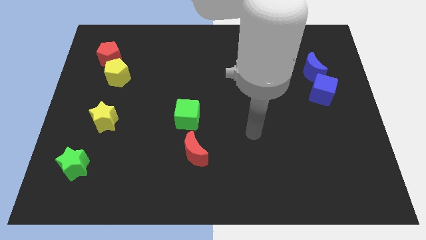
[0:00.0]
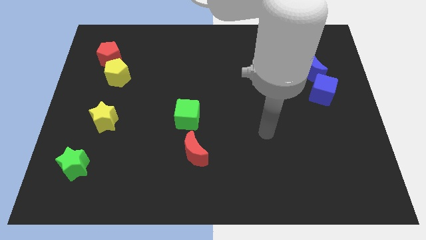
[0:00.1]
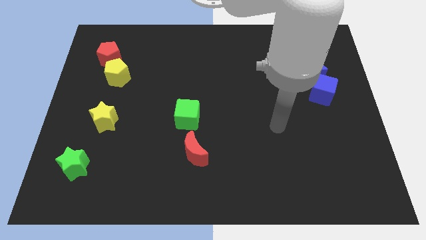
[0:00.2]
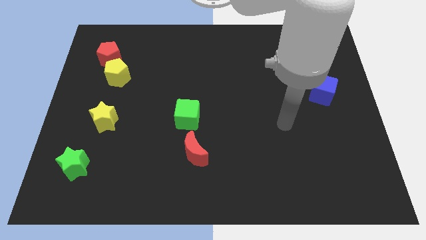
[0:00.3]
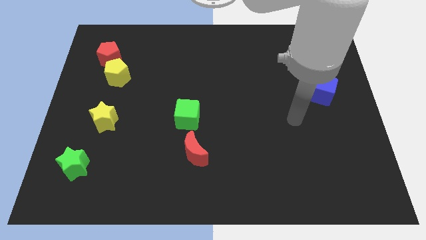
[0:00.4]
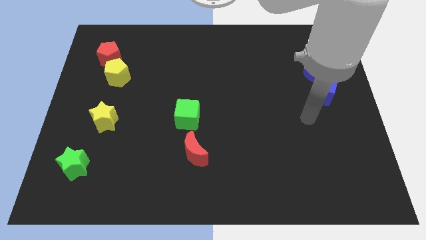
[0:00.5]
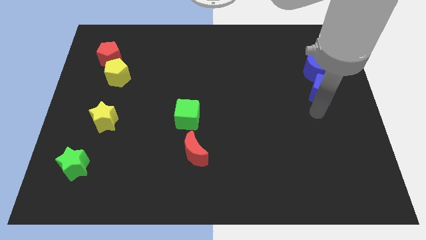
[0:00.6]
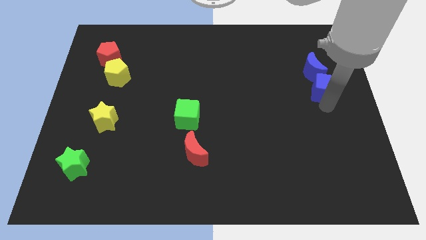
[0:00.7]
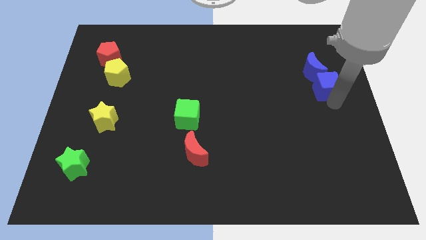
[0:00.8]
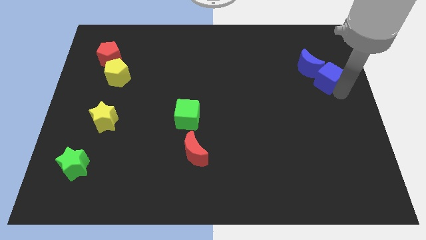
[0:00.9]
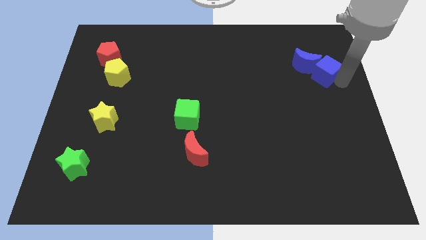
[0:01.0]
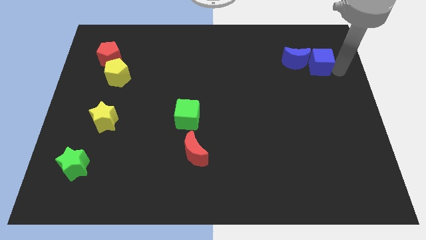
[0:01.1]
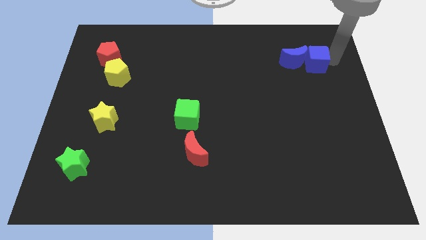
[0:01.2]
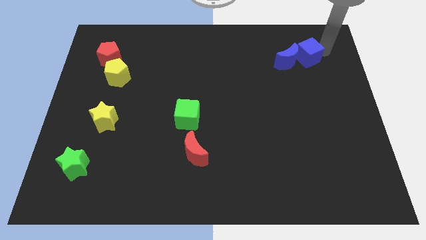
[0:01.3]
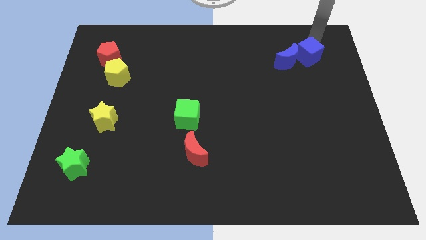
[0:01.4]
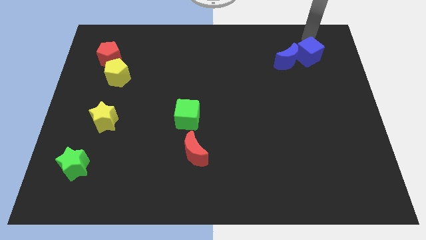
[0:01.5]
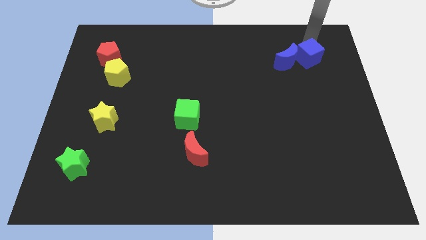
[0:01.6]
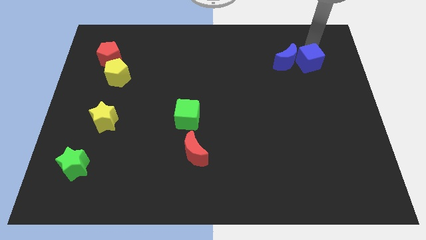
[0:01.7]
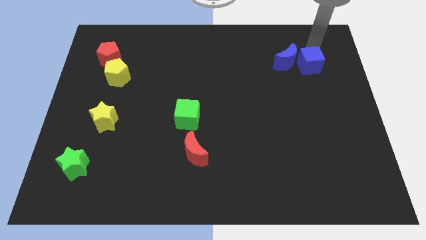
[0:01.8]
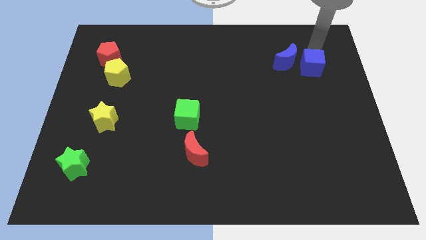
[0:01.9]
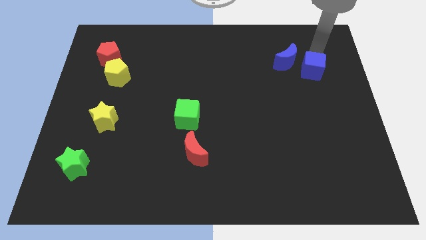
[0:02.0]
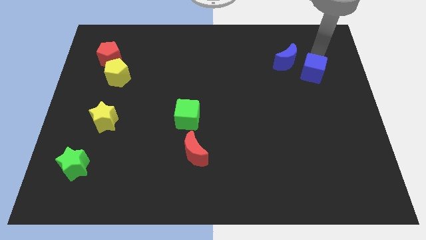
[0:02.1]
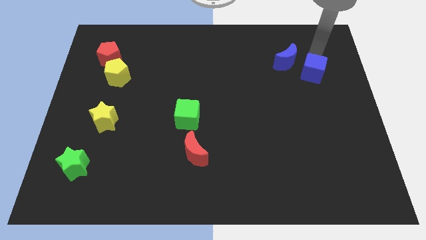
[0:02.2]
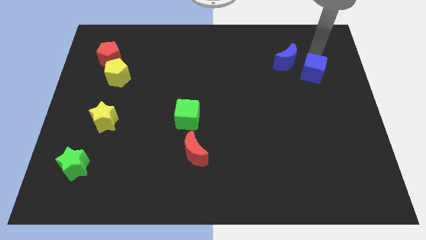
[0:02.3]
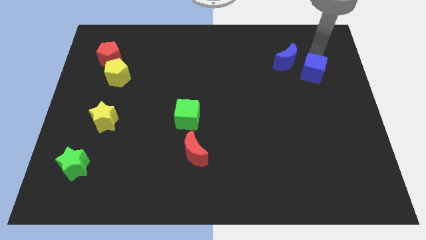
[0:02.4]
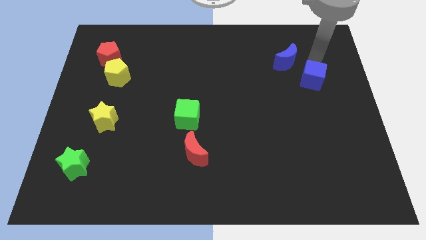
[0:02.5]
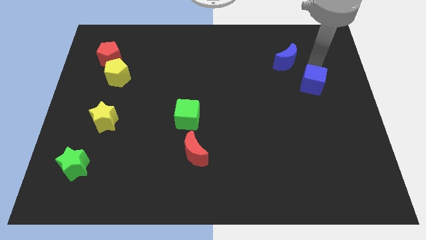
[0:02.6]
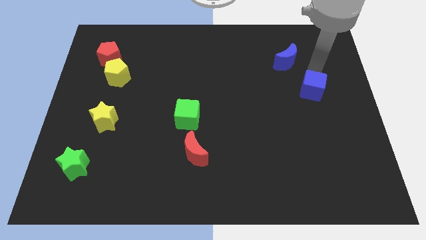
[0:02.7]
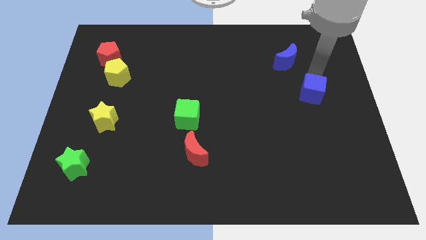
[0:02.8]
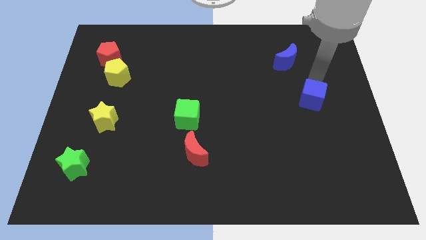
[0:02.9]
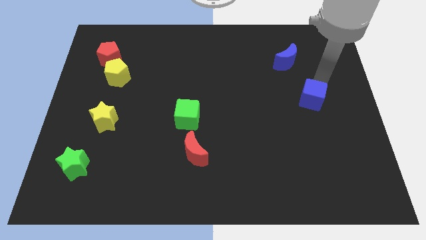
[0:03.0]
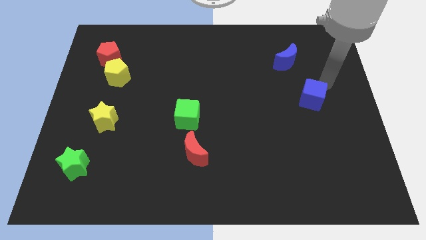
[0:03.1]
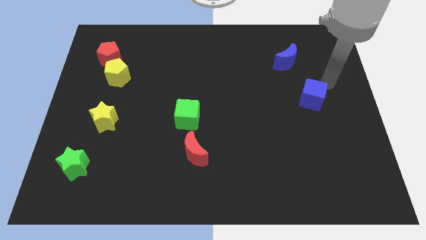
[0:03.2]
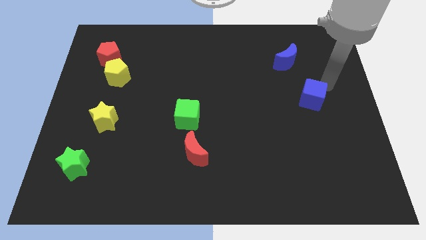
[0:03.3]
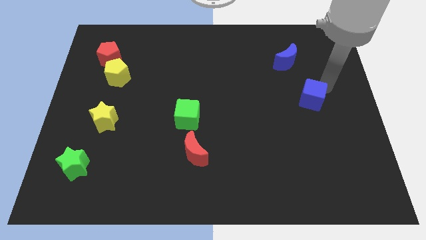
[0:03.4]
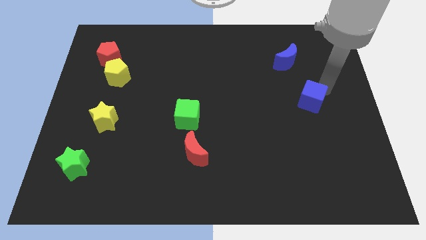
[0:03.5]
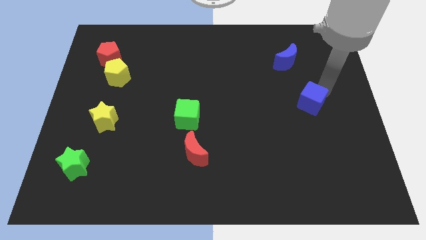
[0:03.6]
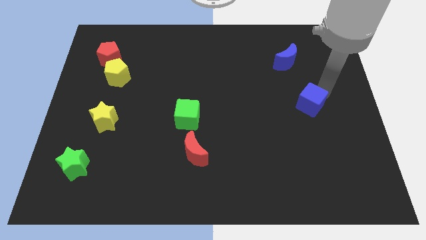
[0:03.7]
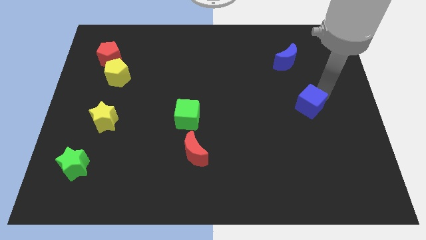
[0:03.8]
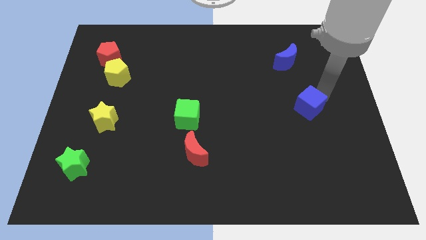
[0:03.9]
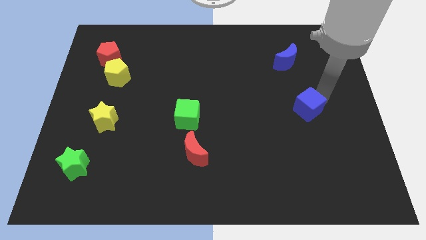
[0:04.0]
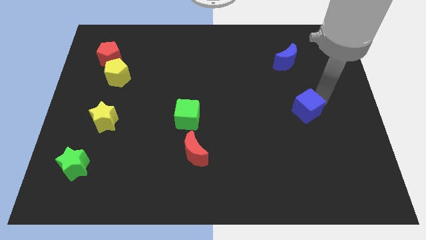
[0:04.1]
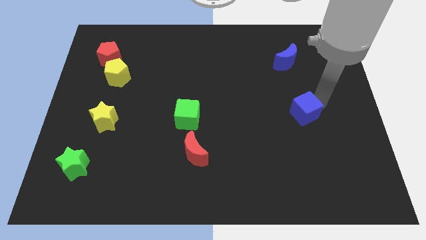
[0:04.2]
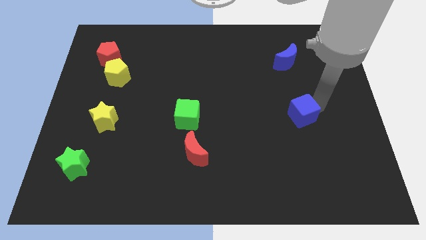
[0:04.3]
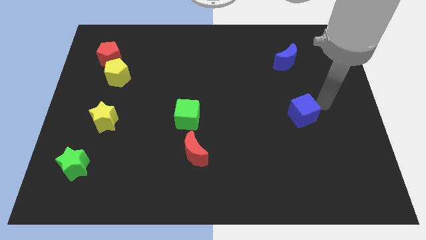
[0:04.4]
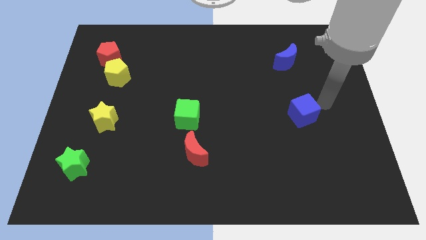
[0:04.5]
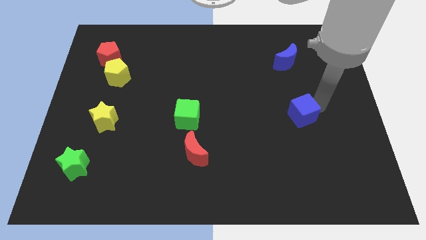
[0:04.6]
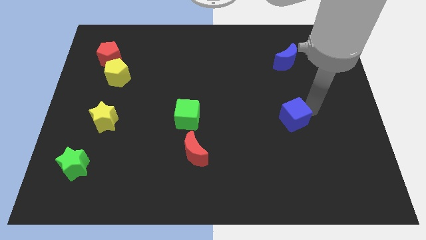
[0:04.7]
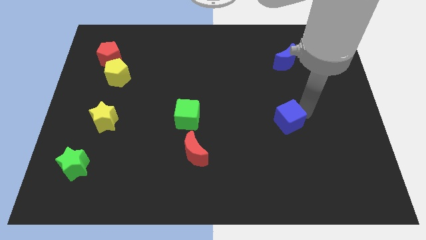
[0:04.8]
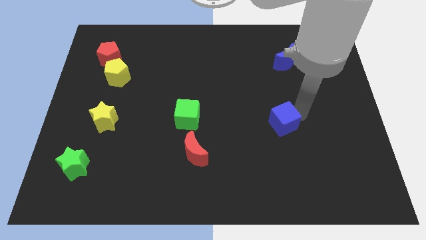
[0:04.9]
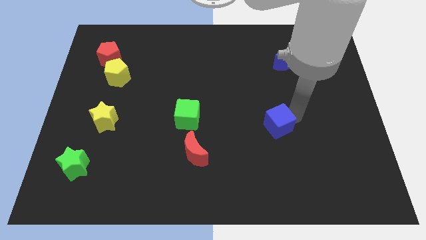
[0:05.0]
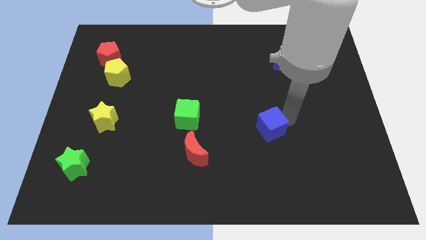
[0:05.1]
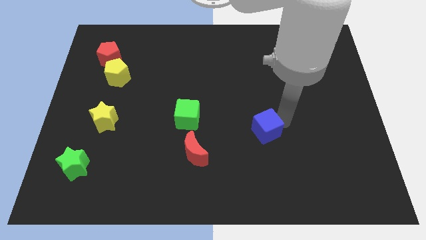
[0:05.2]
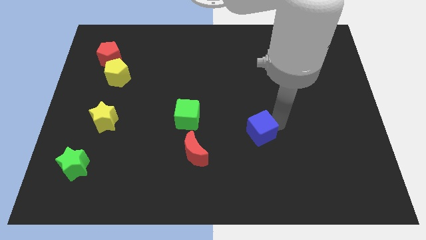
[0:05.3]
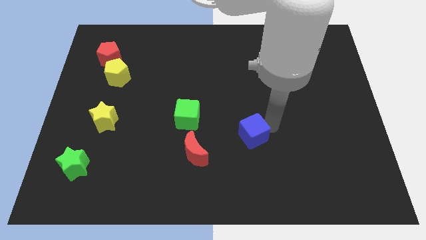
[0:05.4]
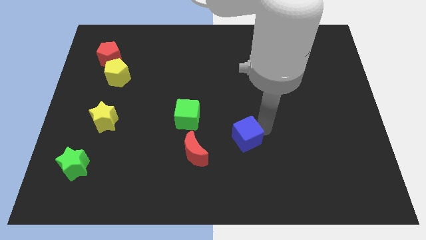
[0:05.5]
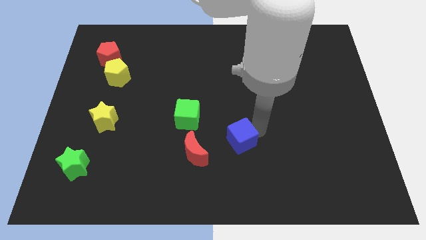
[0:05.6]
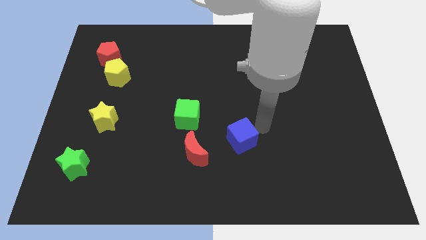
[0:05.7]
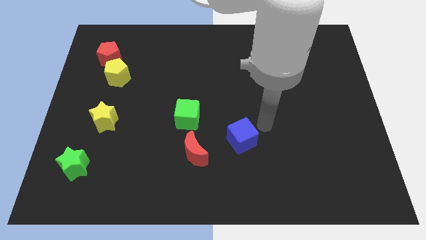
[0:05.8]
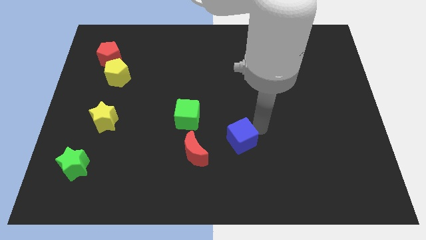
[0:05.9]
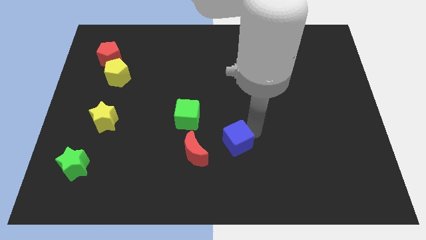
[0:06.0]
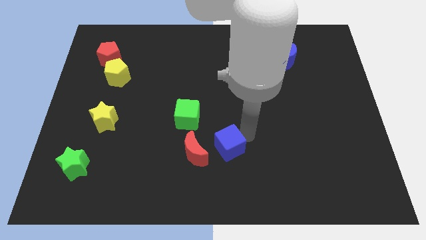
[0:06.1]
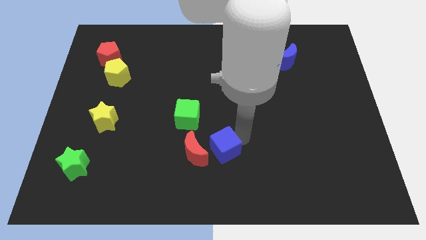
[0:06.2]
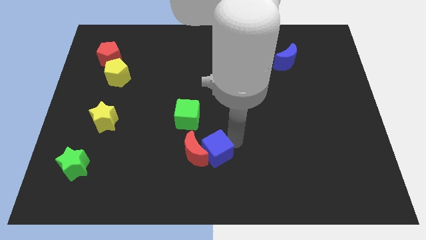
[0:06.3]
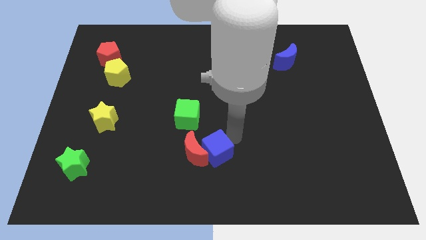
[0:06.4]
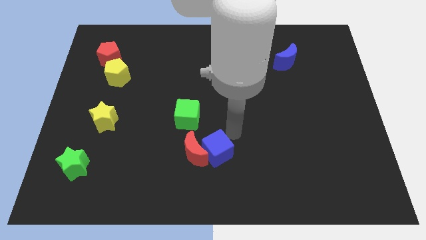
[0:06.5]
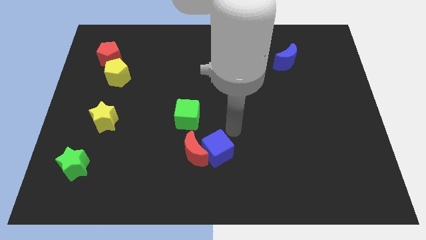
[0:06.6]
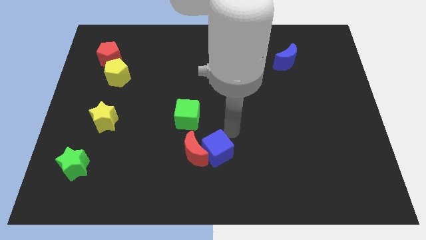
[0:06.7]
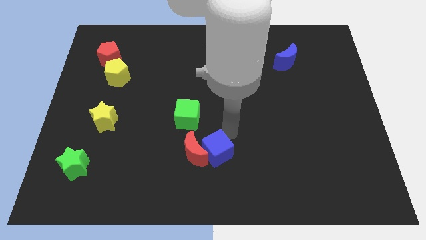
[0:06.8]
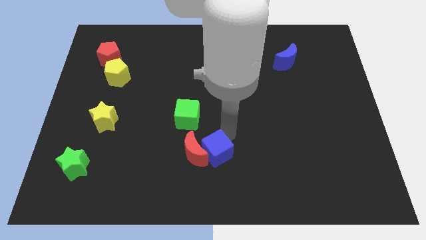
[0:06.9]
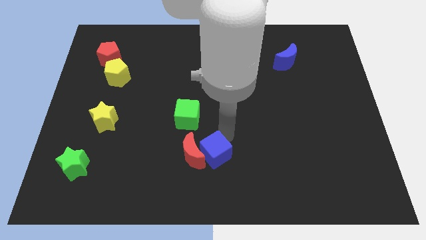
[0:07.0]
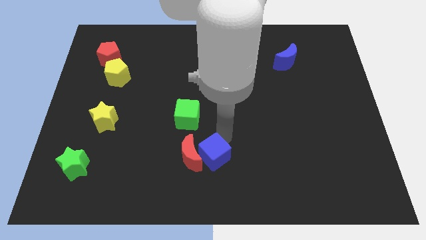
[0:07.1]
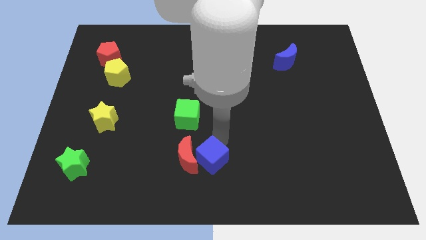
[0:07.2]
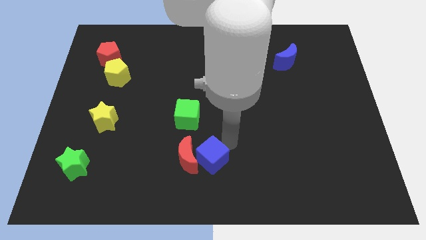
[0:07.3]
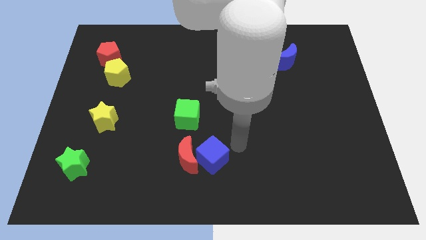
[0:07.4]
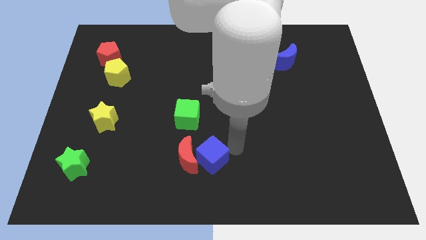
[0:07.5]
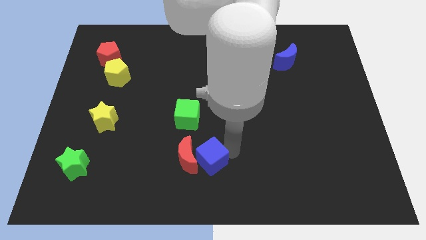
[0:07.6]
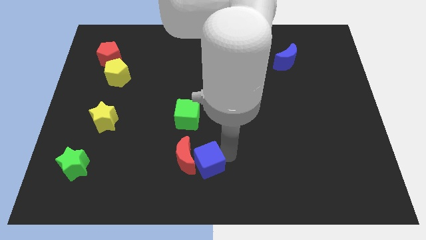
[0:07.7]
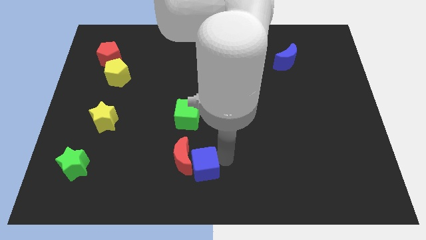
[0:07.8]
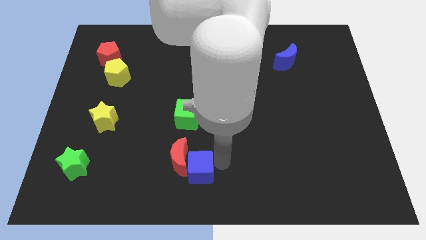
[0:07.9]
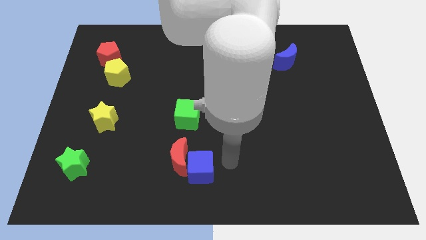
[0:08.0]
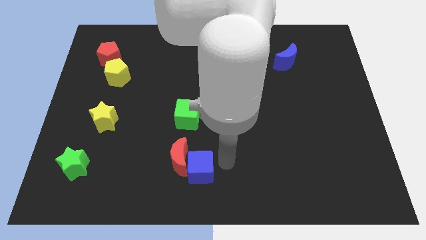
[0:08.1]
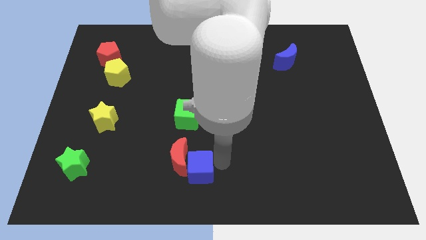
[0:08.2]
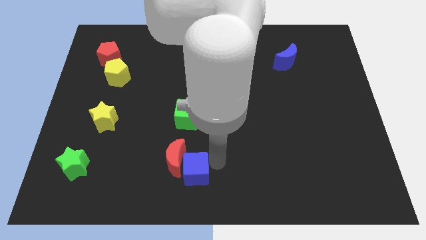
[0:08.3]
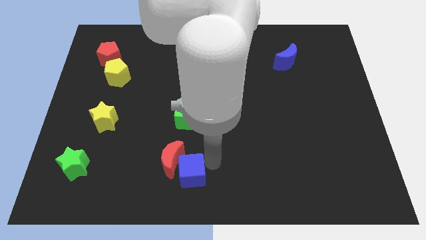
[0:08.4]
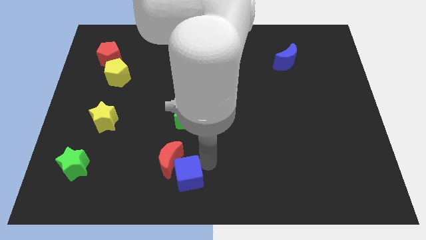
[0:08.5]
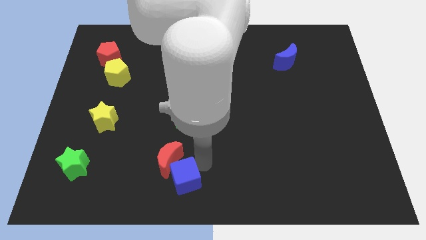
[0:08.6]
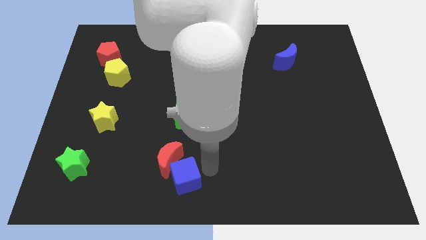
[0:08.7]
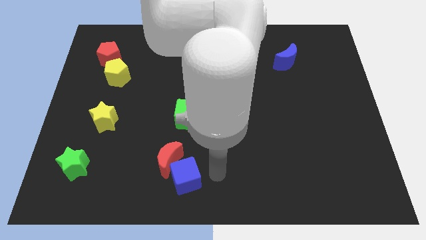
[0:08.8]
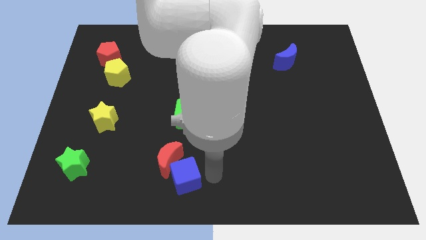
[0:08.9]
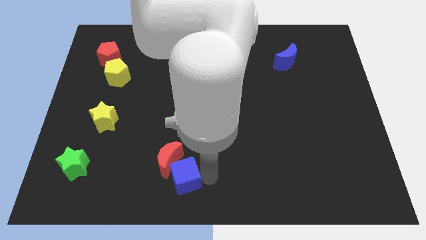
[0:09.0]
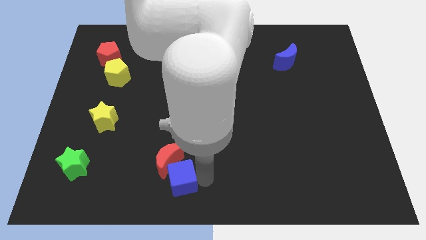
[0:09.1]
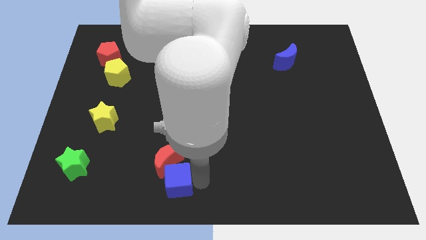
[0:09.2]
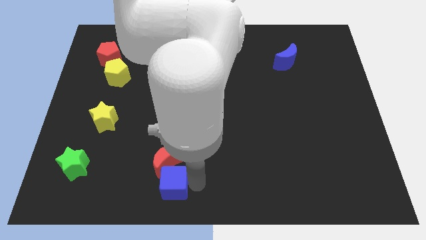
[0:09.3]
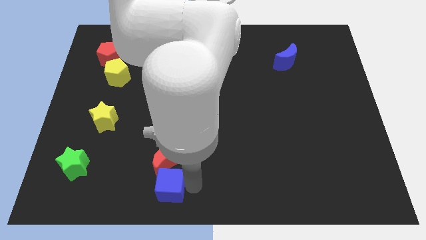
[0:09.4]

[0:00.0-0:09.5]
push the blue cube to the bottom left side of the red moon
